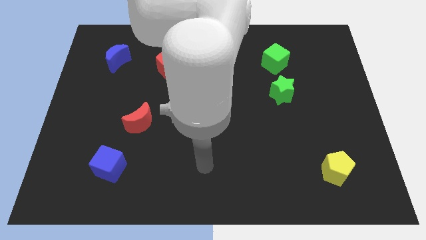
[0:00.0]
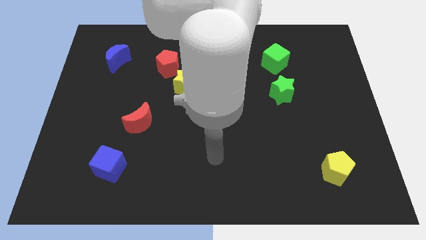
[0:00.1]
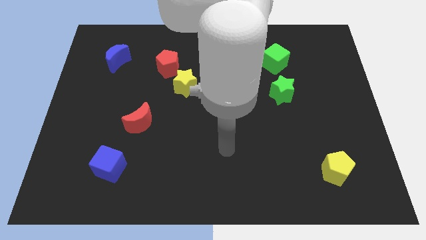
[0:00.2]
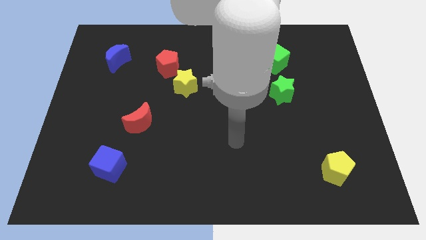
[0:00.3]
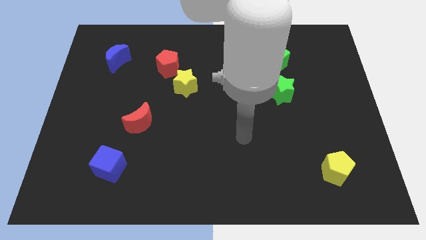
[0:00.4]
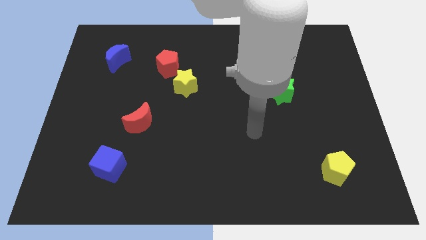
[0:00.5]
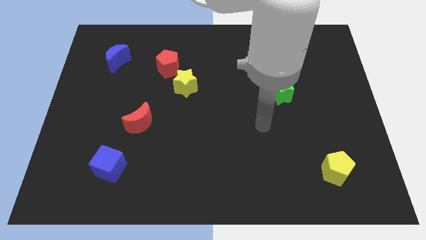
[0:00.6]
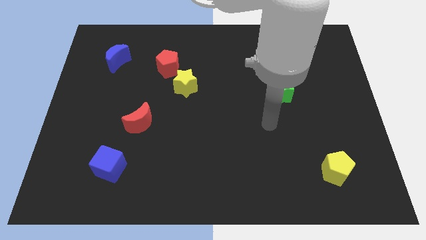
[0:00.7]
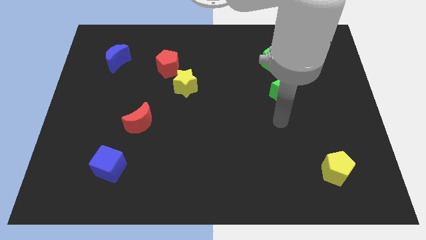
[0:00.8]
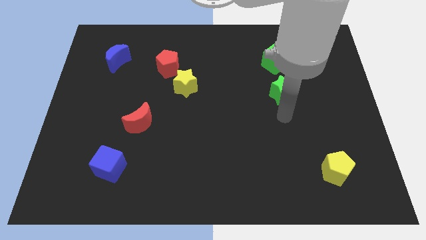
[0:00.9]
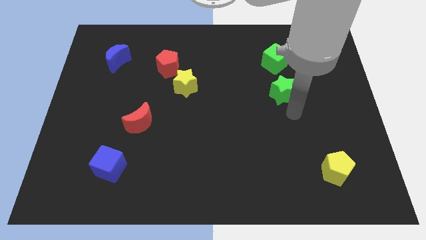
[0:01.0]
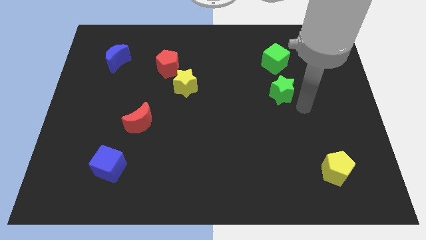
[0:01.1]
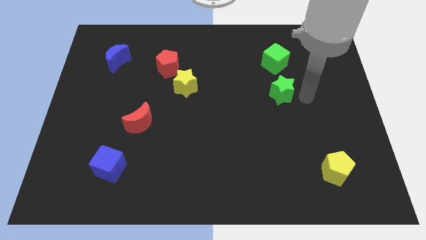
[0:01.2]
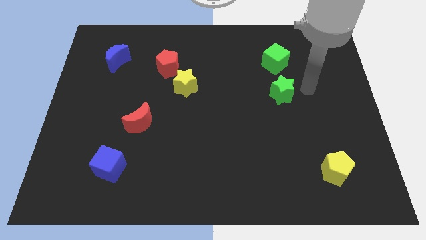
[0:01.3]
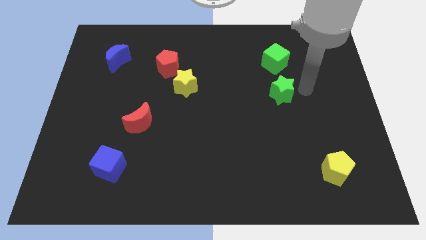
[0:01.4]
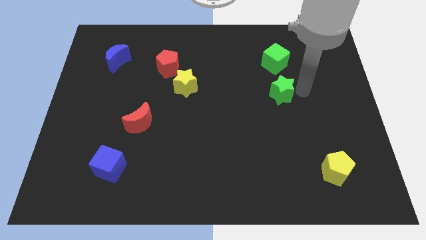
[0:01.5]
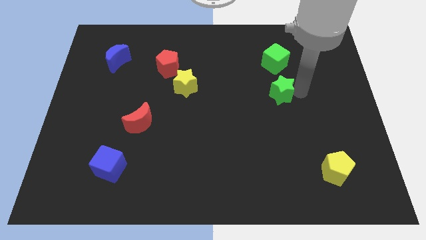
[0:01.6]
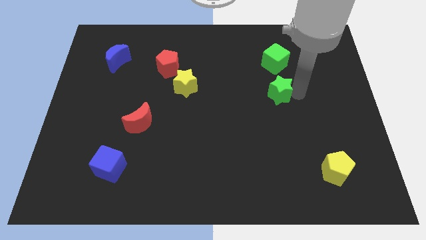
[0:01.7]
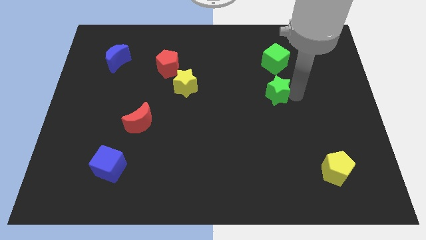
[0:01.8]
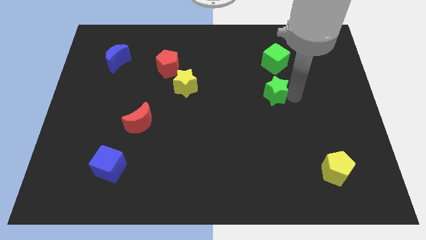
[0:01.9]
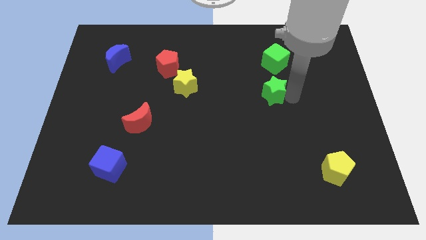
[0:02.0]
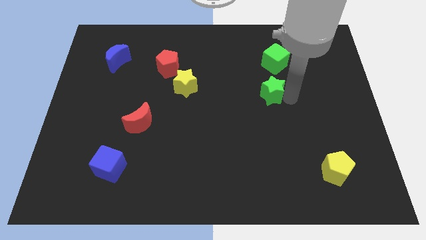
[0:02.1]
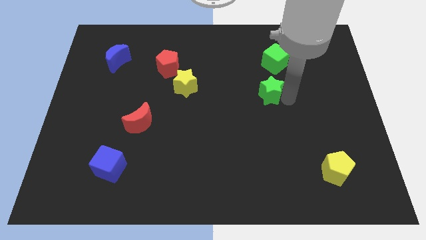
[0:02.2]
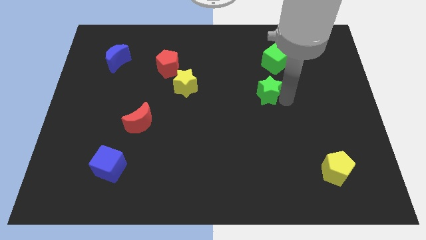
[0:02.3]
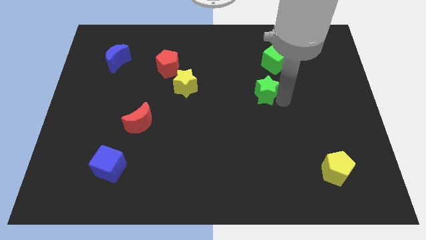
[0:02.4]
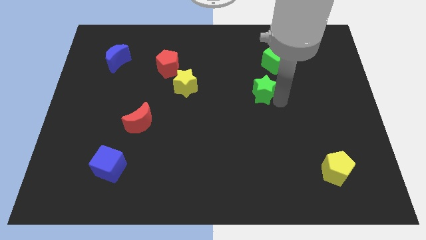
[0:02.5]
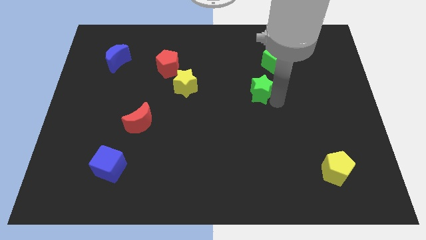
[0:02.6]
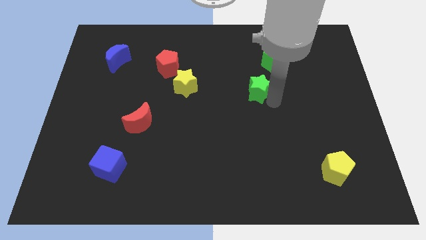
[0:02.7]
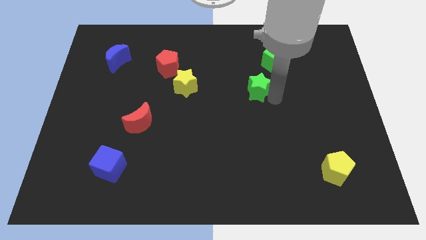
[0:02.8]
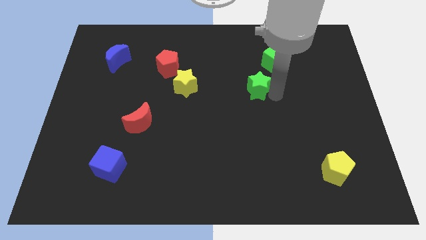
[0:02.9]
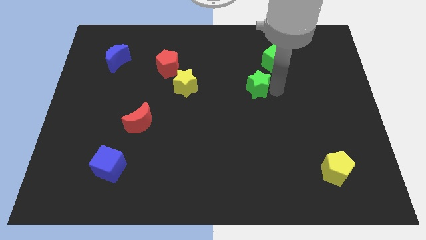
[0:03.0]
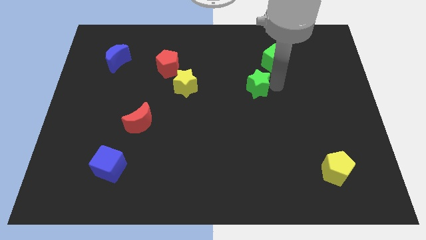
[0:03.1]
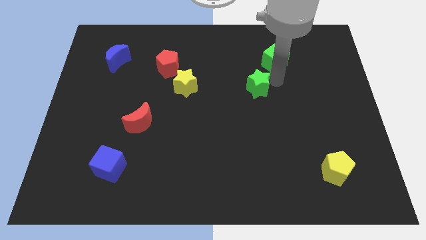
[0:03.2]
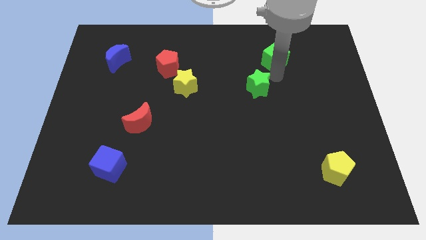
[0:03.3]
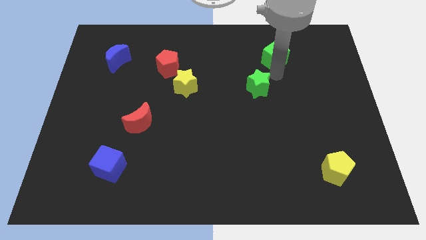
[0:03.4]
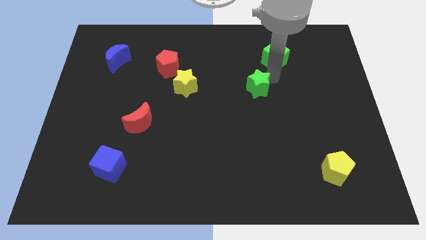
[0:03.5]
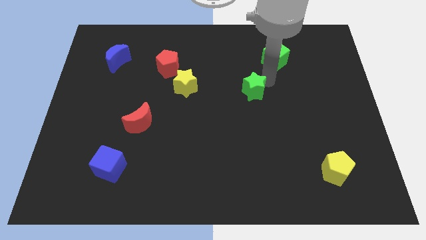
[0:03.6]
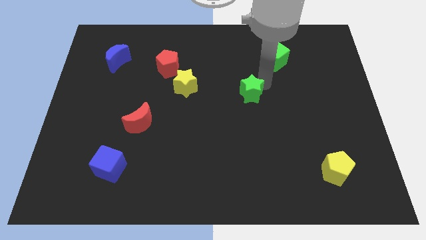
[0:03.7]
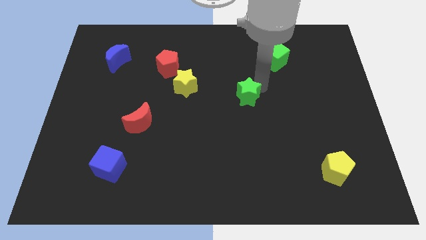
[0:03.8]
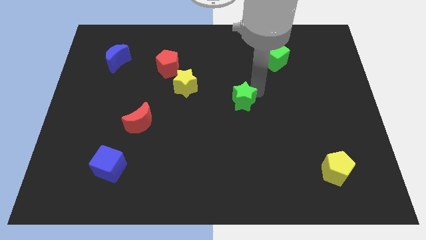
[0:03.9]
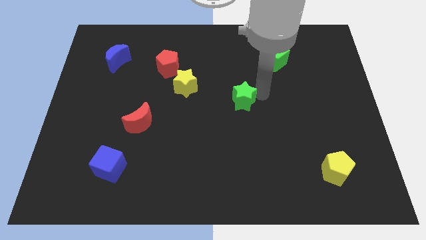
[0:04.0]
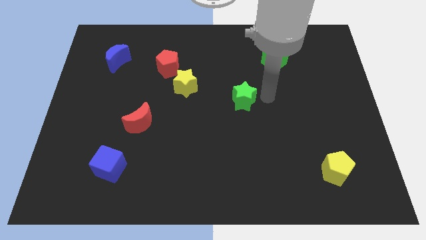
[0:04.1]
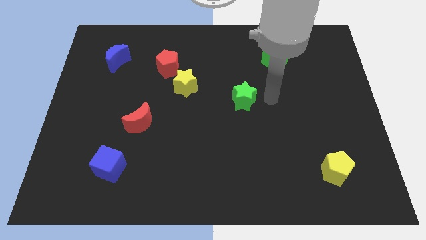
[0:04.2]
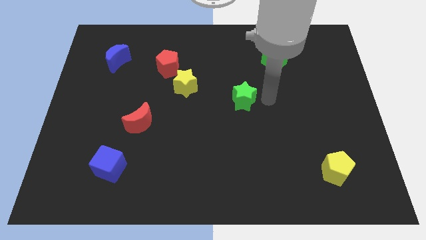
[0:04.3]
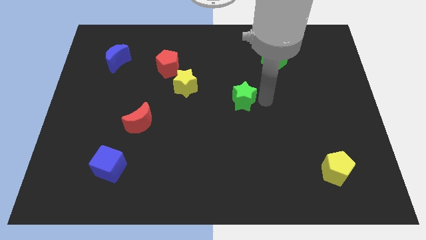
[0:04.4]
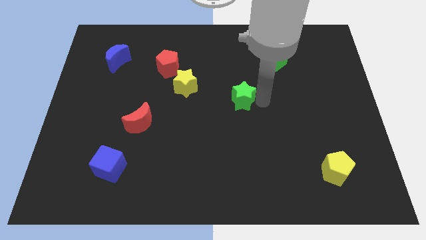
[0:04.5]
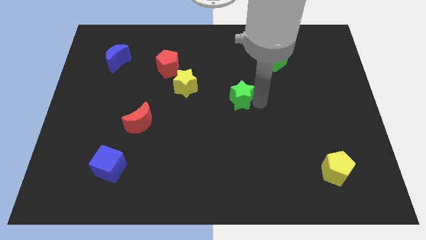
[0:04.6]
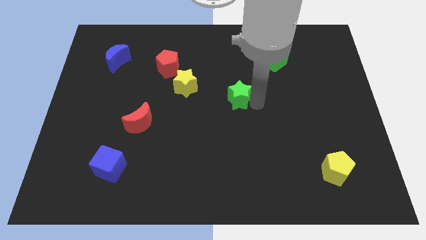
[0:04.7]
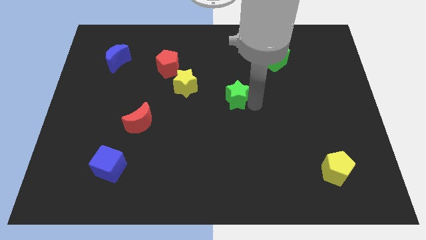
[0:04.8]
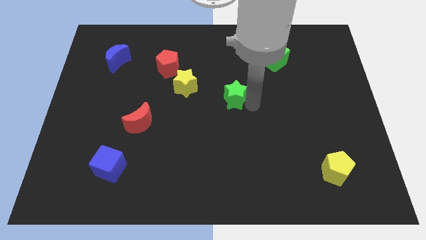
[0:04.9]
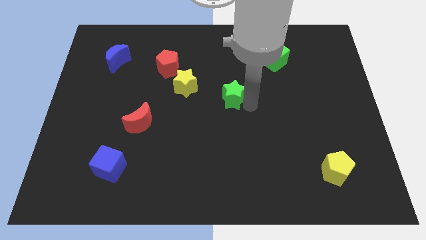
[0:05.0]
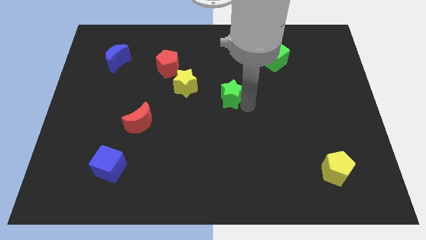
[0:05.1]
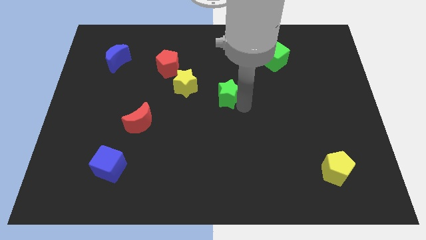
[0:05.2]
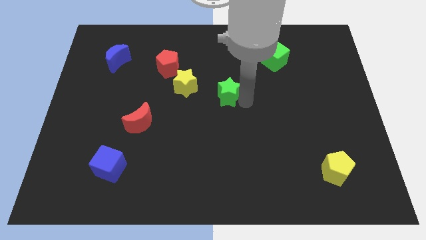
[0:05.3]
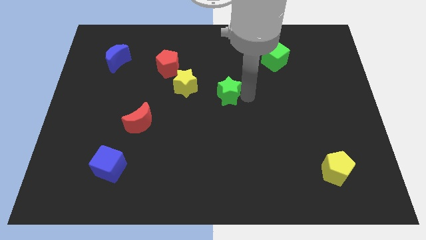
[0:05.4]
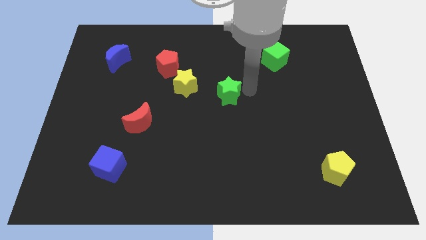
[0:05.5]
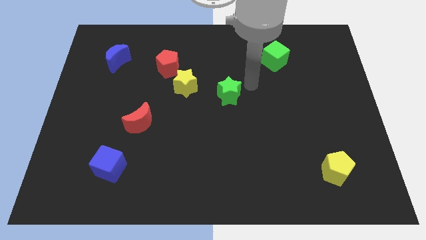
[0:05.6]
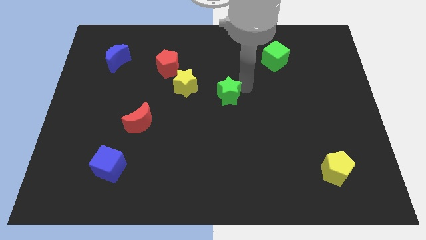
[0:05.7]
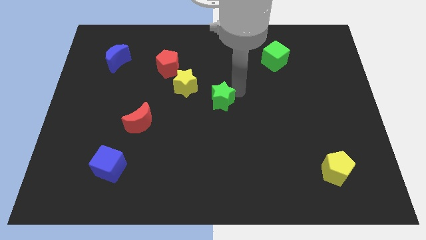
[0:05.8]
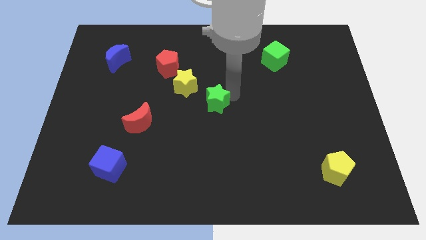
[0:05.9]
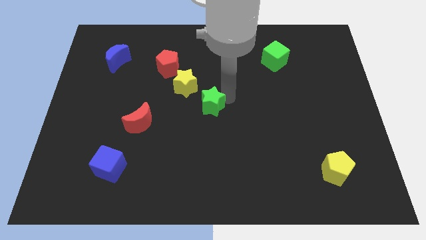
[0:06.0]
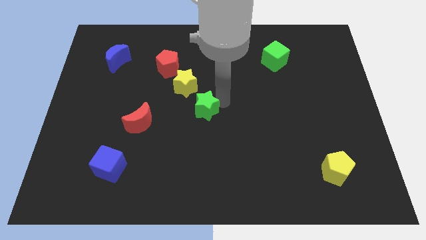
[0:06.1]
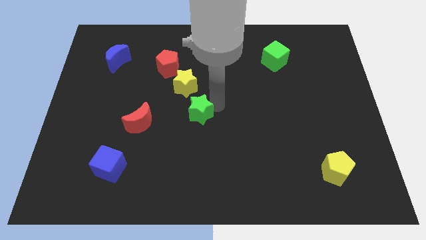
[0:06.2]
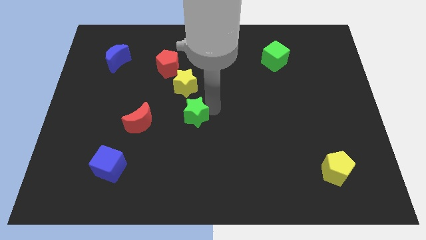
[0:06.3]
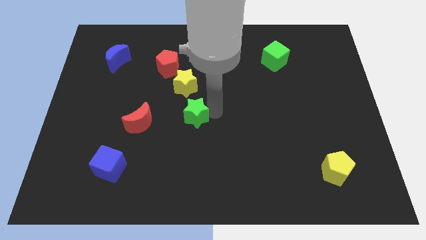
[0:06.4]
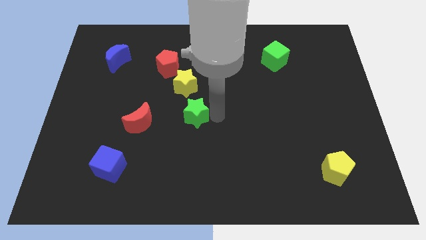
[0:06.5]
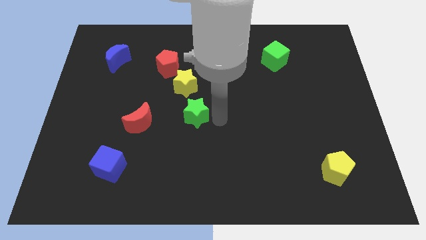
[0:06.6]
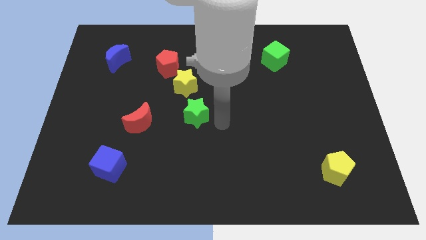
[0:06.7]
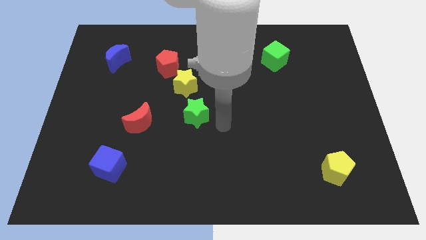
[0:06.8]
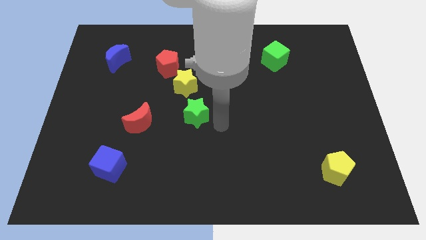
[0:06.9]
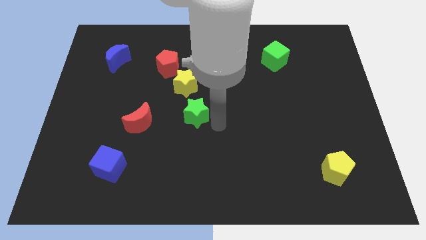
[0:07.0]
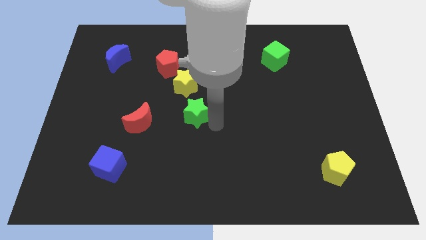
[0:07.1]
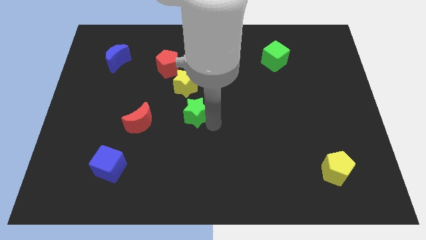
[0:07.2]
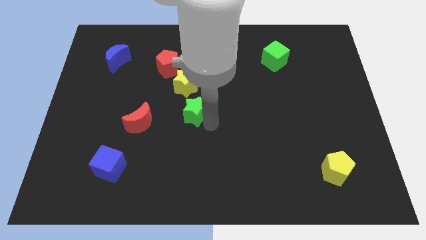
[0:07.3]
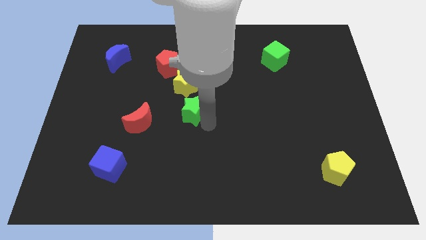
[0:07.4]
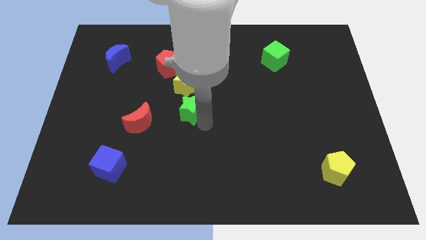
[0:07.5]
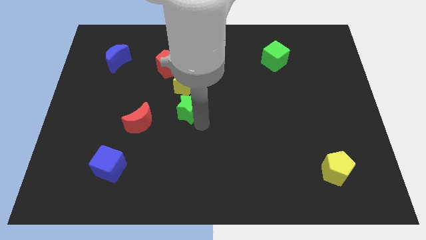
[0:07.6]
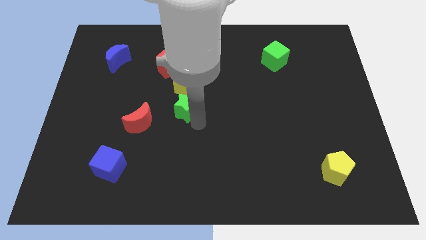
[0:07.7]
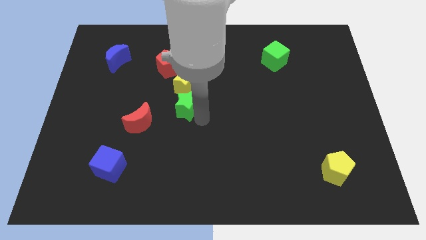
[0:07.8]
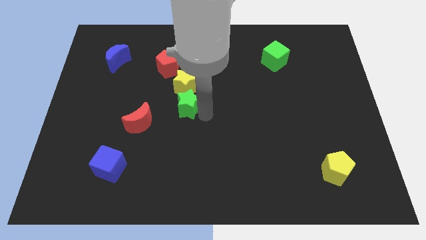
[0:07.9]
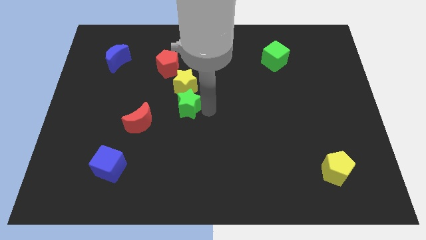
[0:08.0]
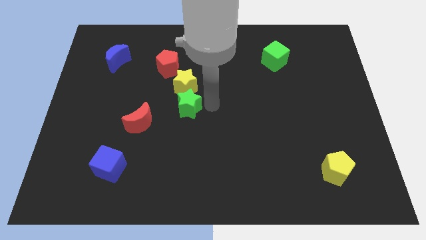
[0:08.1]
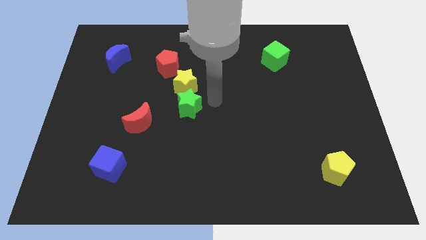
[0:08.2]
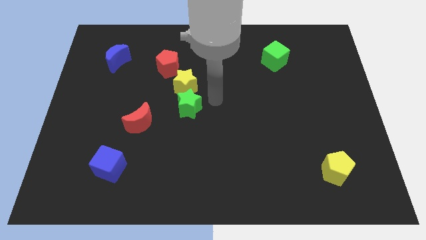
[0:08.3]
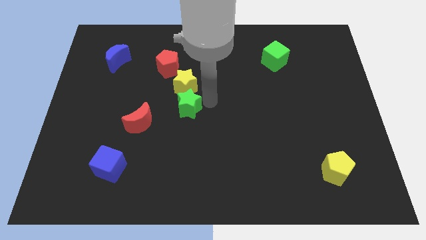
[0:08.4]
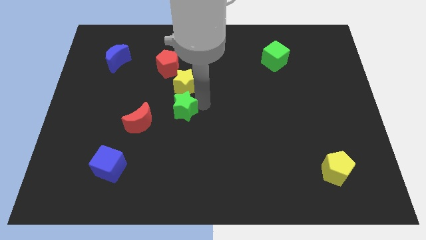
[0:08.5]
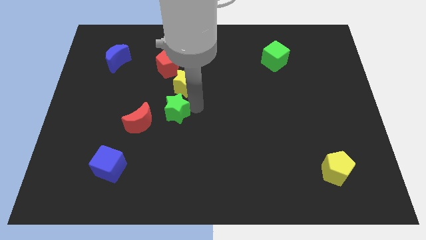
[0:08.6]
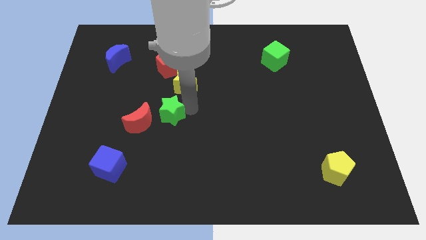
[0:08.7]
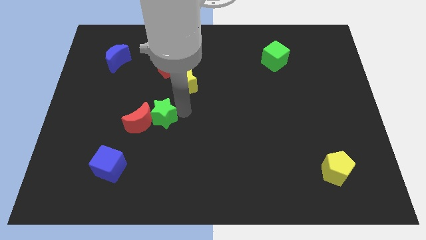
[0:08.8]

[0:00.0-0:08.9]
push the green star to the red moon
